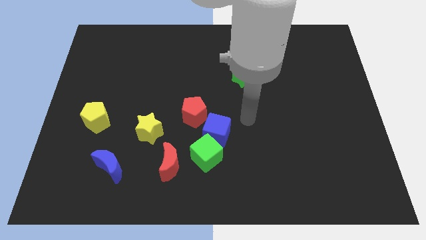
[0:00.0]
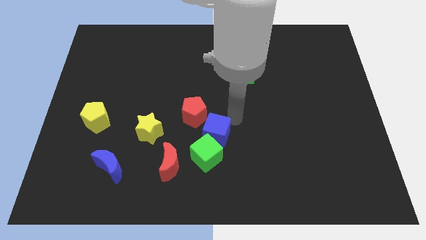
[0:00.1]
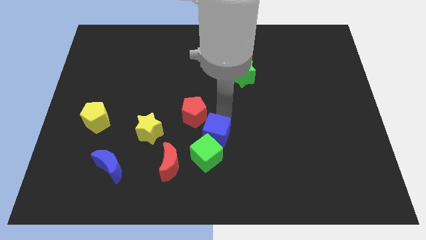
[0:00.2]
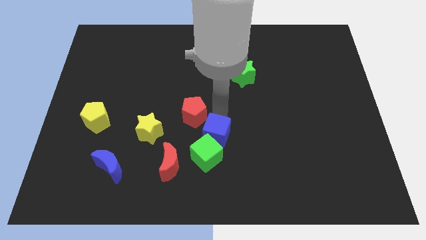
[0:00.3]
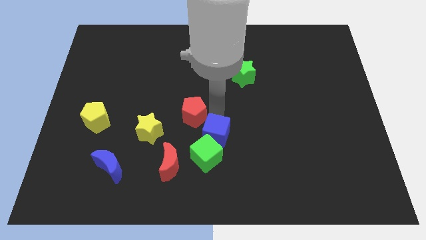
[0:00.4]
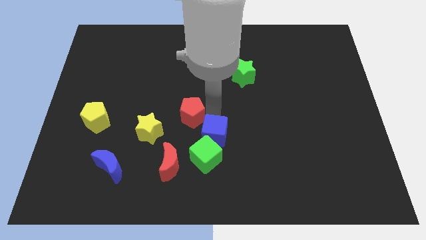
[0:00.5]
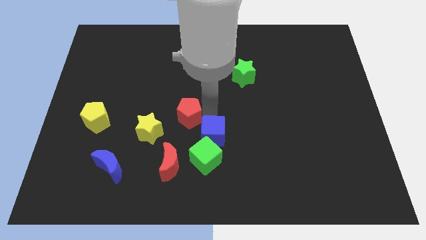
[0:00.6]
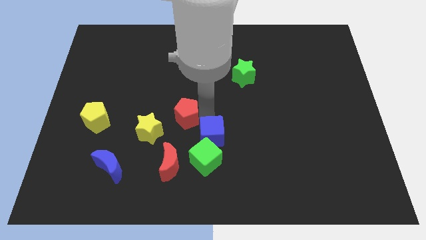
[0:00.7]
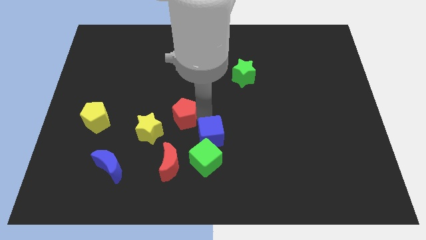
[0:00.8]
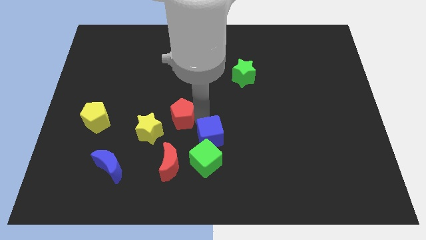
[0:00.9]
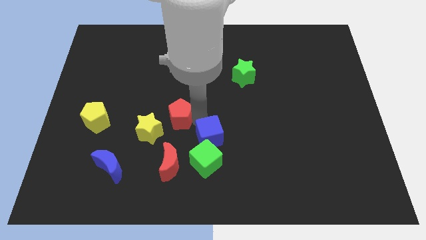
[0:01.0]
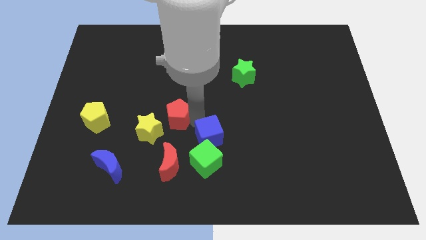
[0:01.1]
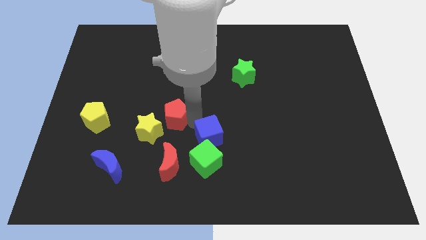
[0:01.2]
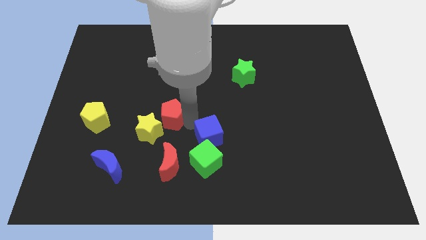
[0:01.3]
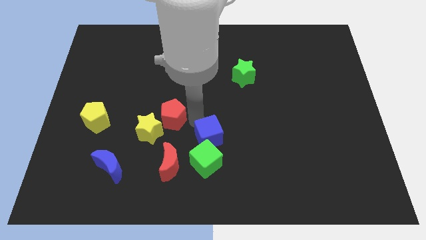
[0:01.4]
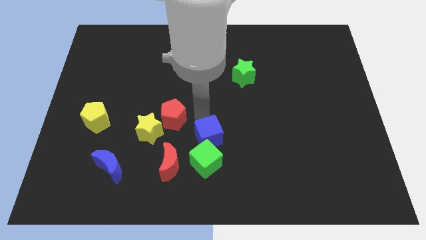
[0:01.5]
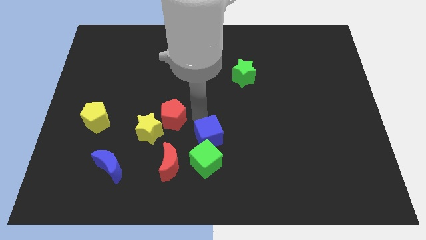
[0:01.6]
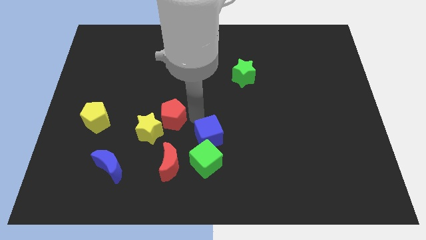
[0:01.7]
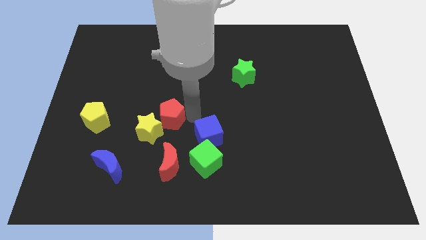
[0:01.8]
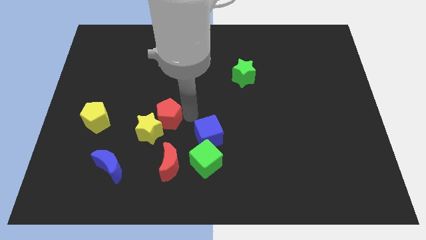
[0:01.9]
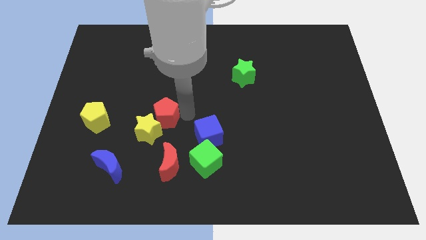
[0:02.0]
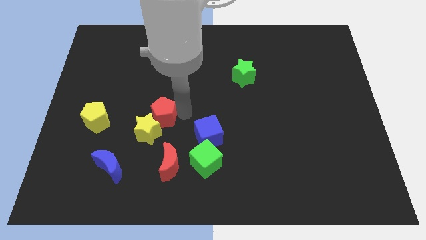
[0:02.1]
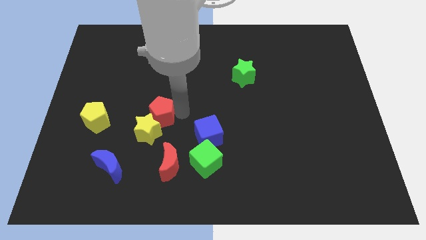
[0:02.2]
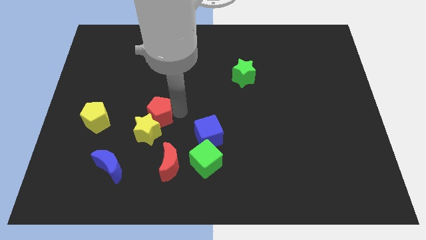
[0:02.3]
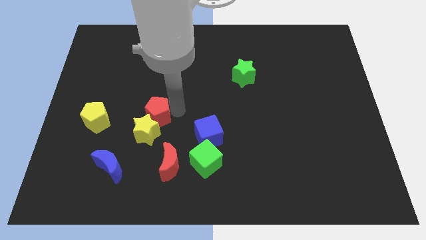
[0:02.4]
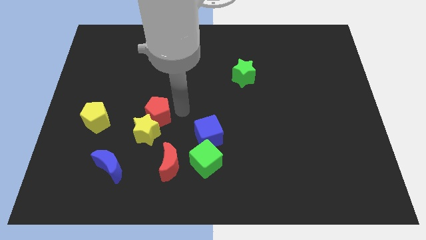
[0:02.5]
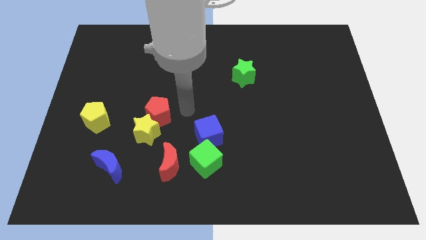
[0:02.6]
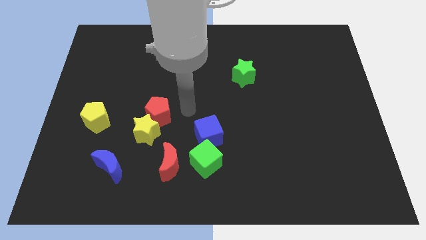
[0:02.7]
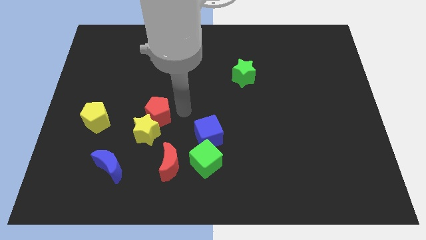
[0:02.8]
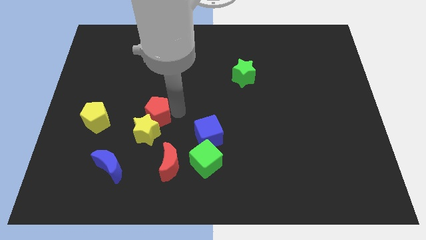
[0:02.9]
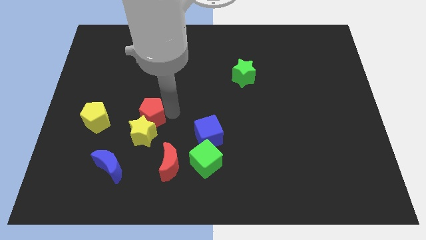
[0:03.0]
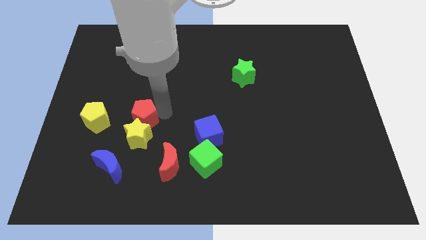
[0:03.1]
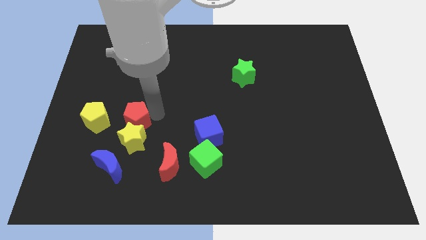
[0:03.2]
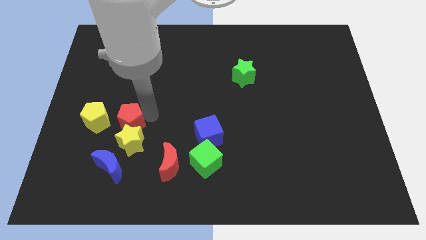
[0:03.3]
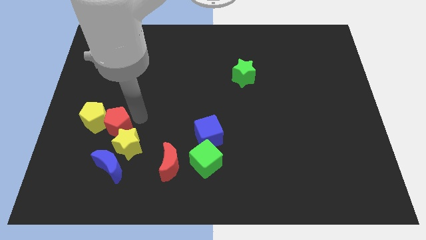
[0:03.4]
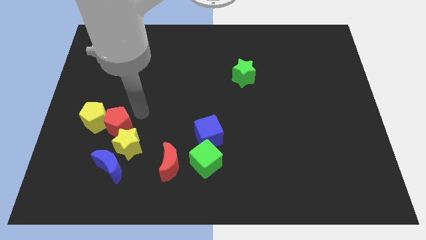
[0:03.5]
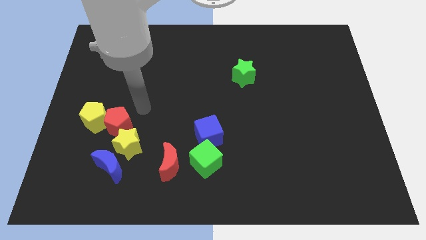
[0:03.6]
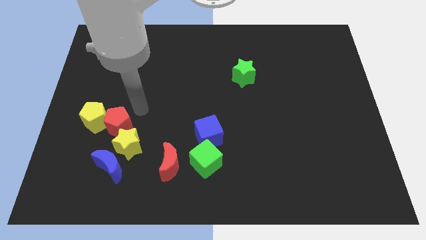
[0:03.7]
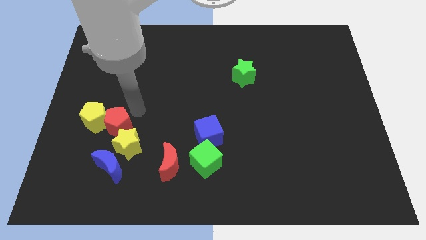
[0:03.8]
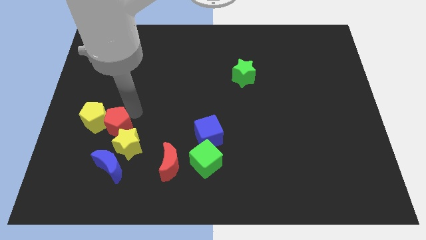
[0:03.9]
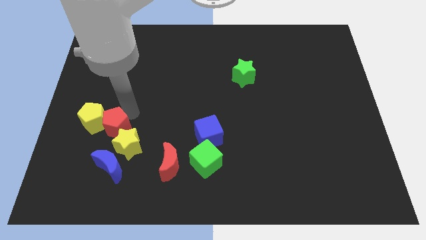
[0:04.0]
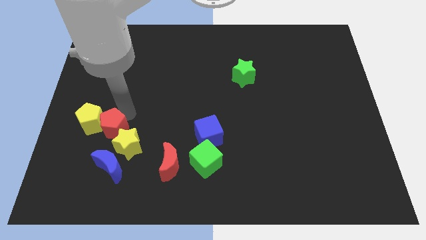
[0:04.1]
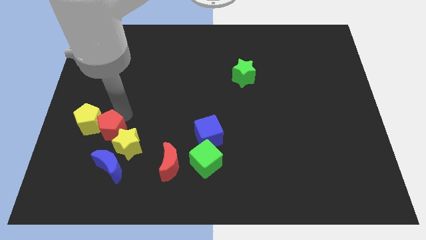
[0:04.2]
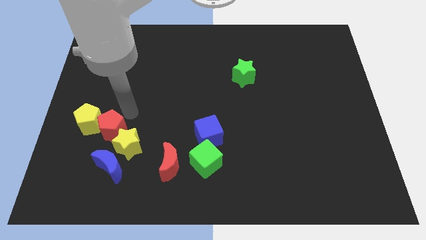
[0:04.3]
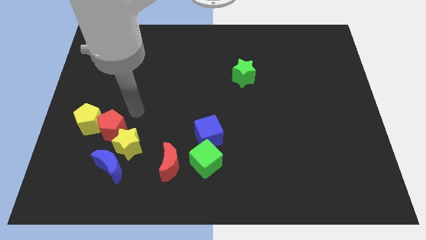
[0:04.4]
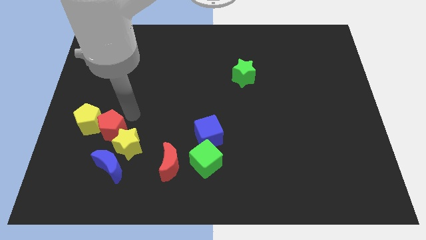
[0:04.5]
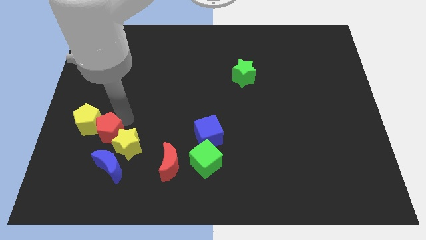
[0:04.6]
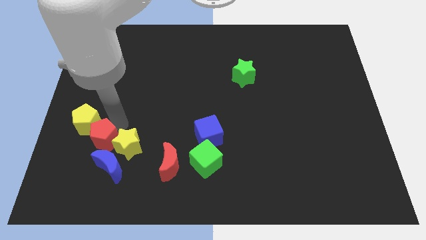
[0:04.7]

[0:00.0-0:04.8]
slide the red pentagon diagonally up and to the left of the blue moon

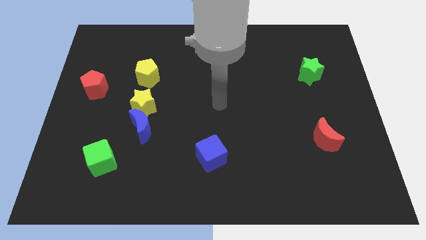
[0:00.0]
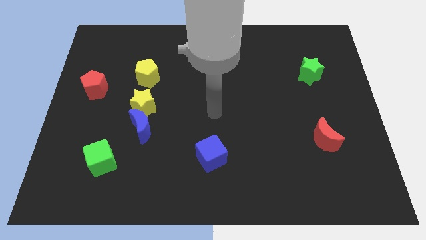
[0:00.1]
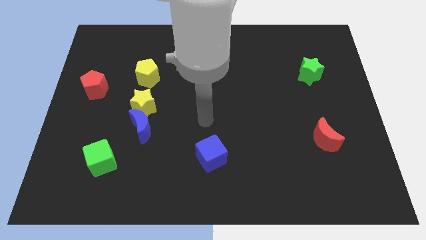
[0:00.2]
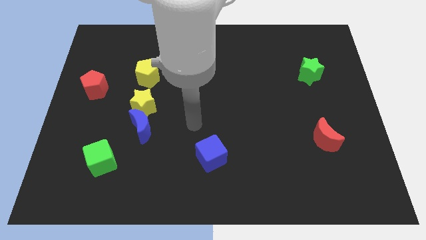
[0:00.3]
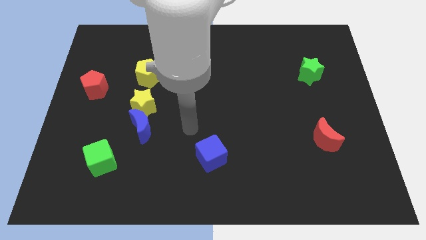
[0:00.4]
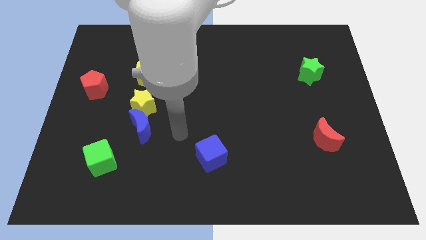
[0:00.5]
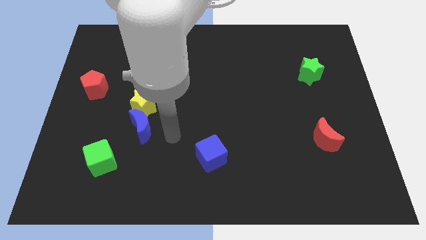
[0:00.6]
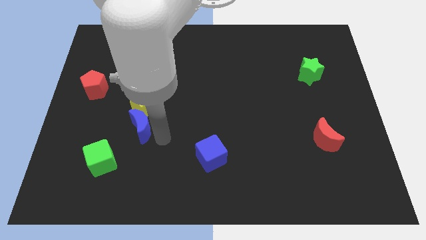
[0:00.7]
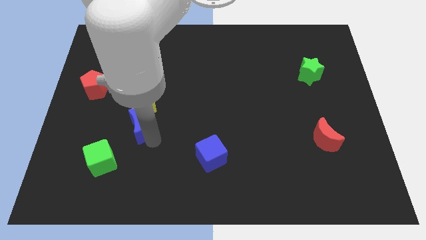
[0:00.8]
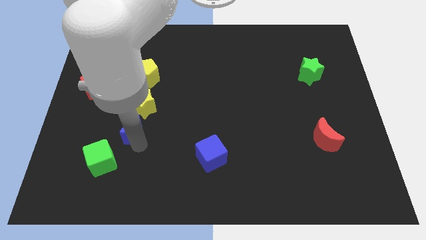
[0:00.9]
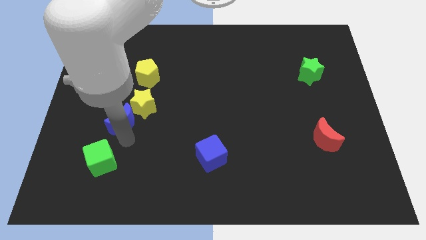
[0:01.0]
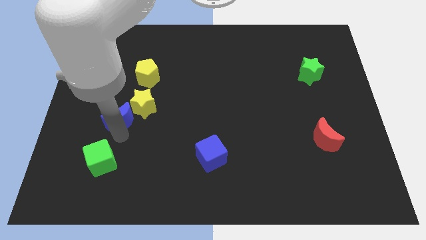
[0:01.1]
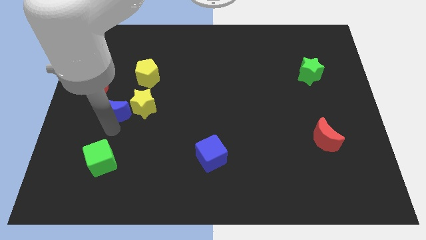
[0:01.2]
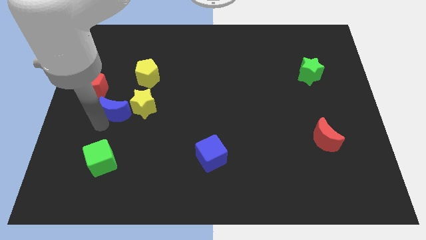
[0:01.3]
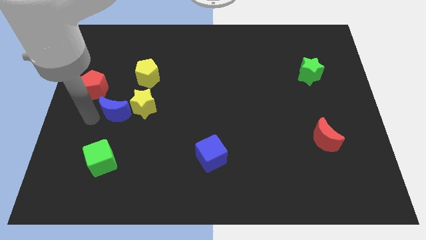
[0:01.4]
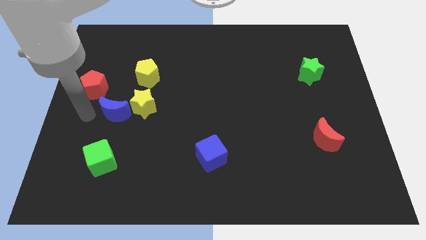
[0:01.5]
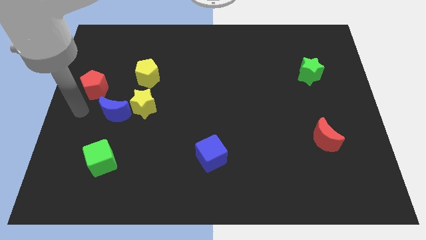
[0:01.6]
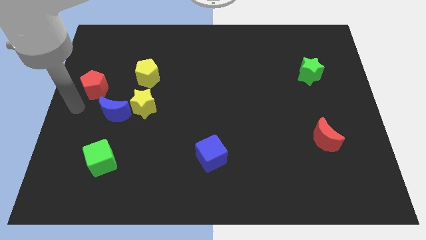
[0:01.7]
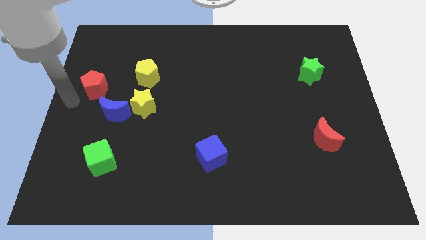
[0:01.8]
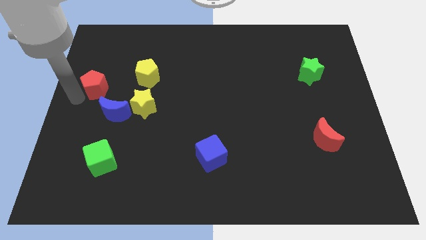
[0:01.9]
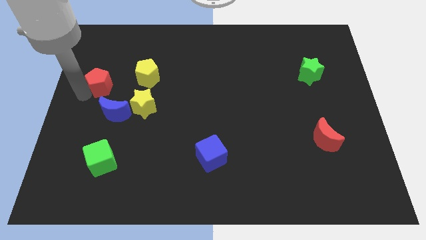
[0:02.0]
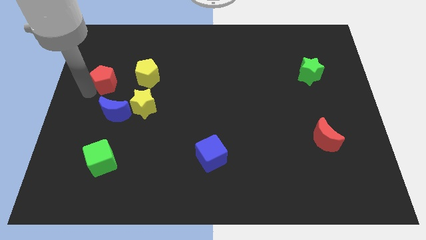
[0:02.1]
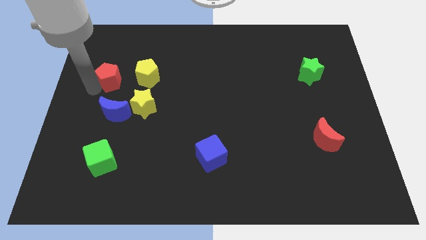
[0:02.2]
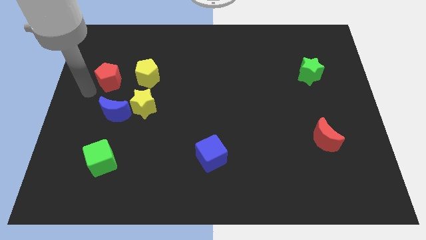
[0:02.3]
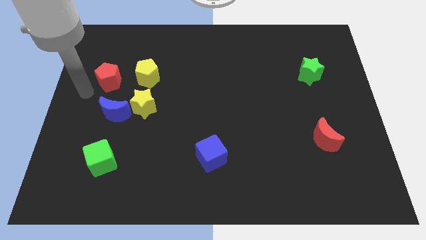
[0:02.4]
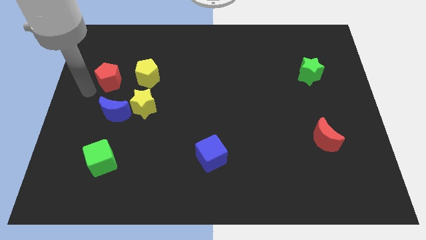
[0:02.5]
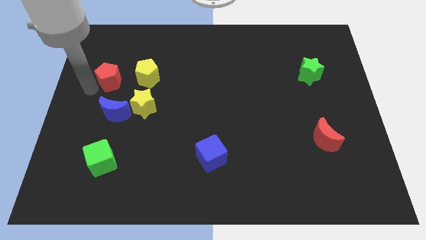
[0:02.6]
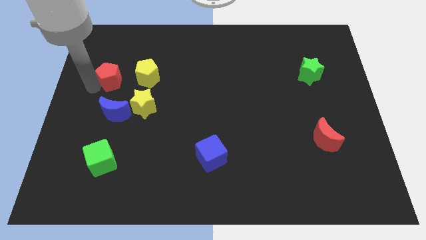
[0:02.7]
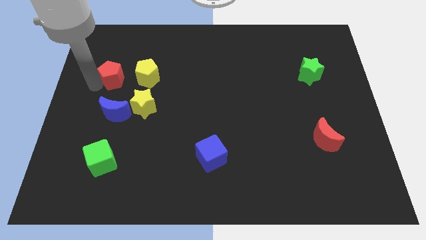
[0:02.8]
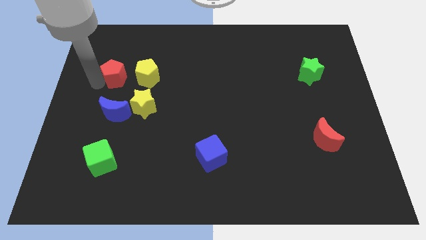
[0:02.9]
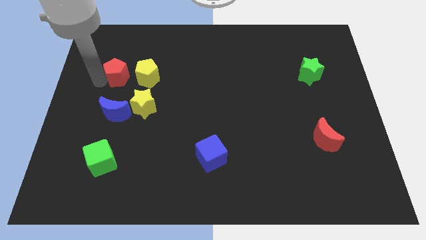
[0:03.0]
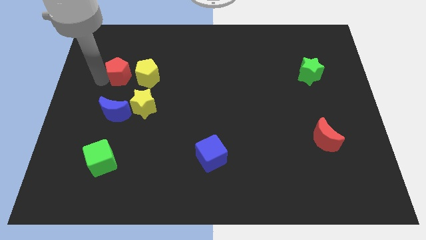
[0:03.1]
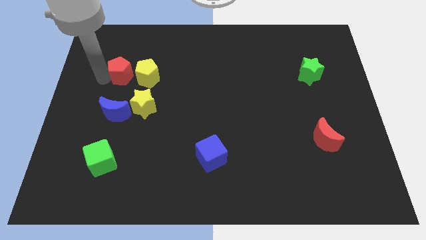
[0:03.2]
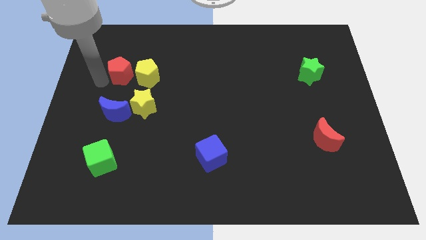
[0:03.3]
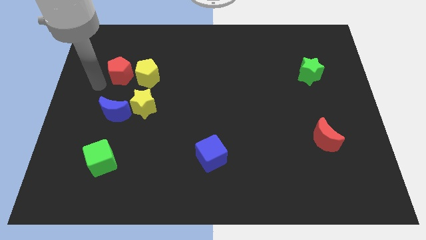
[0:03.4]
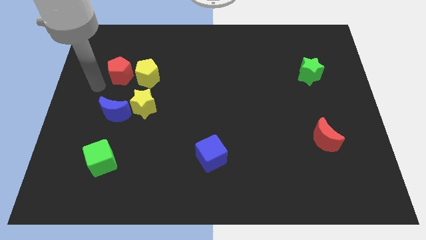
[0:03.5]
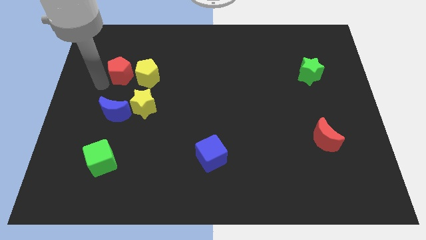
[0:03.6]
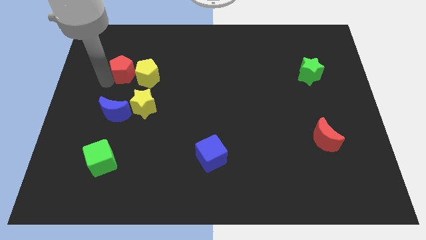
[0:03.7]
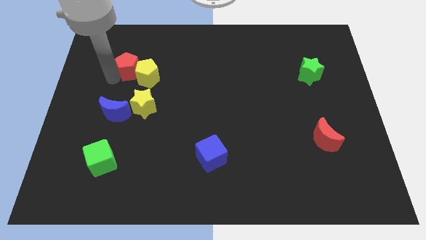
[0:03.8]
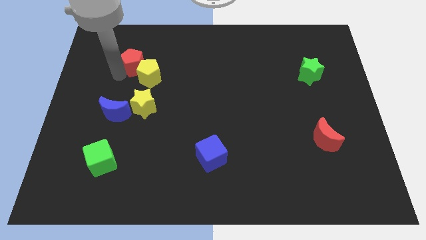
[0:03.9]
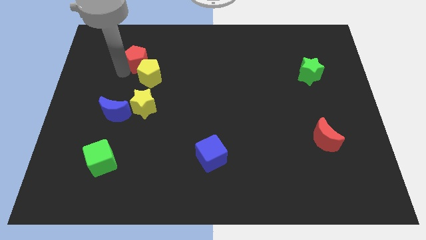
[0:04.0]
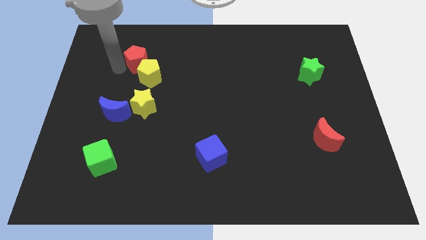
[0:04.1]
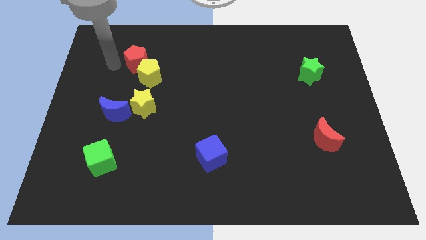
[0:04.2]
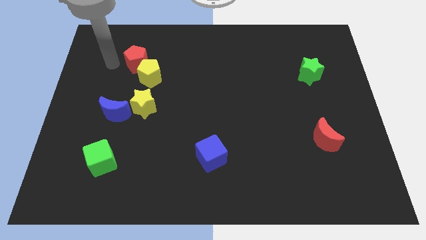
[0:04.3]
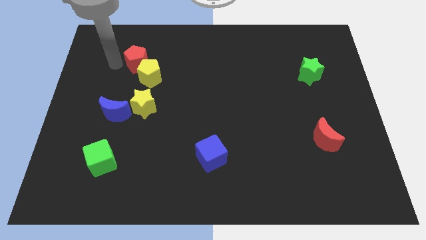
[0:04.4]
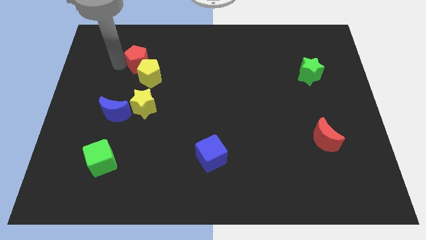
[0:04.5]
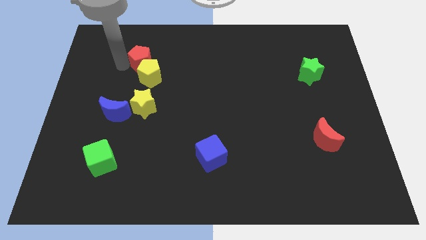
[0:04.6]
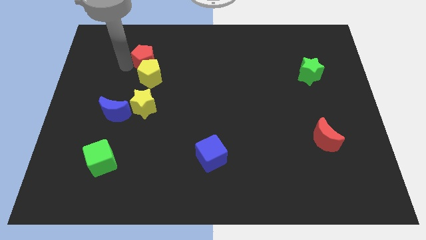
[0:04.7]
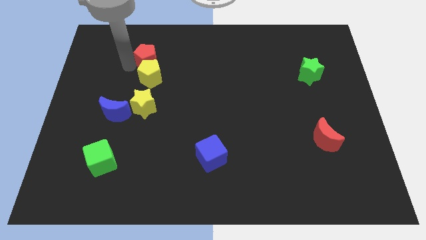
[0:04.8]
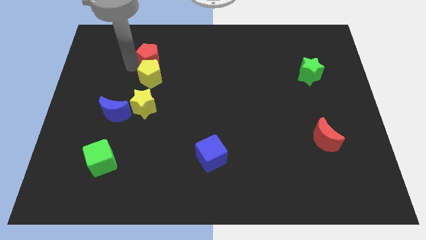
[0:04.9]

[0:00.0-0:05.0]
put the red pentagon to the top right side of the yellow pentagon
